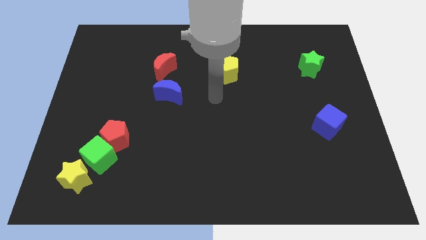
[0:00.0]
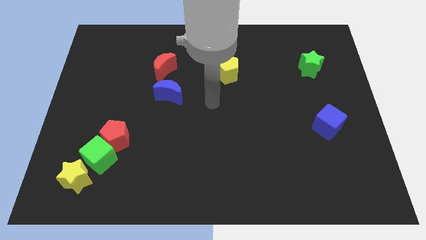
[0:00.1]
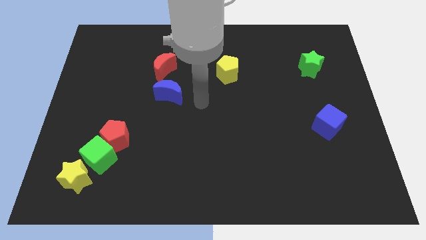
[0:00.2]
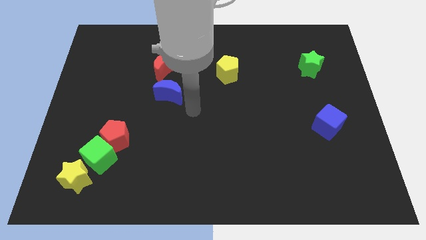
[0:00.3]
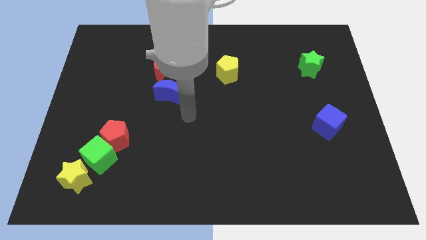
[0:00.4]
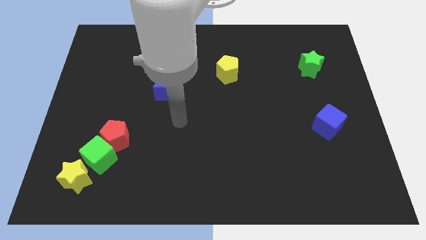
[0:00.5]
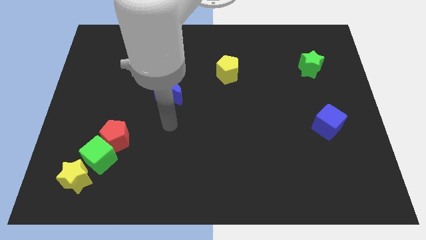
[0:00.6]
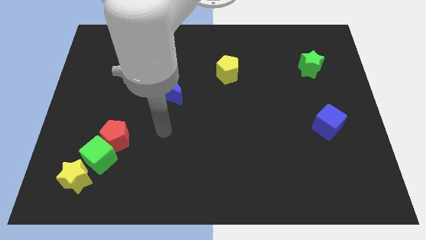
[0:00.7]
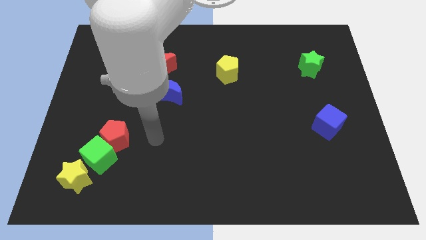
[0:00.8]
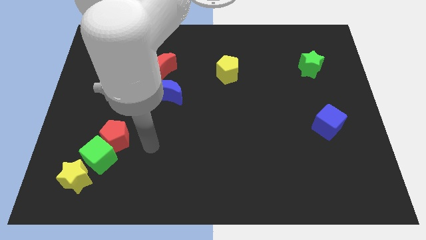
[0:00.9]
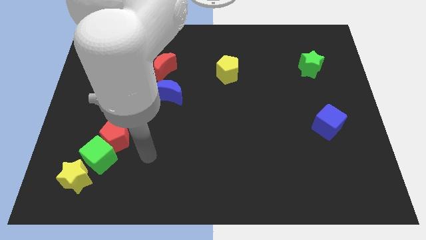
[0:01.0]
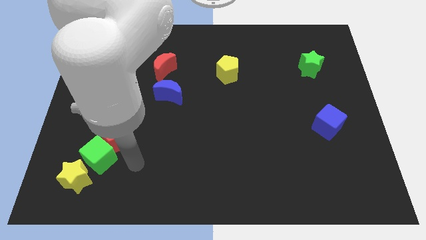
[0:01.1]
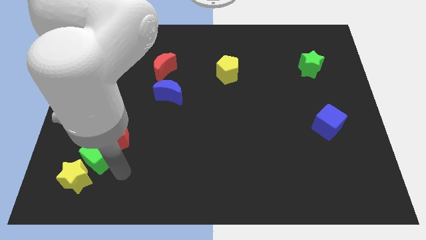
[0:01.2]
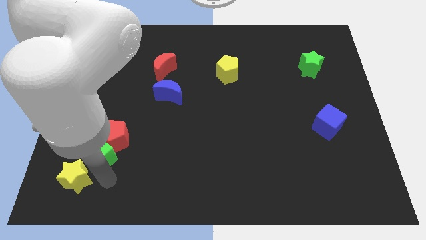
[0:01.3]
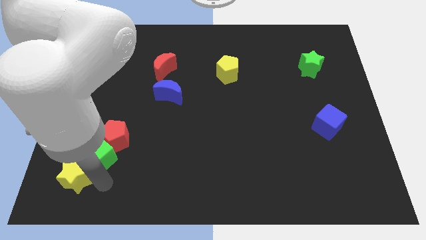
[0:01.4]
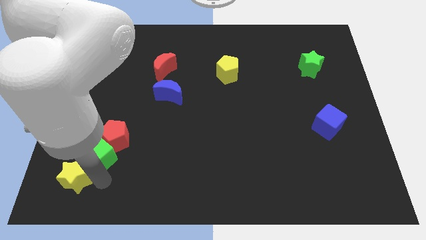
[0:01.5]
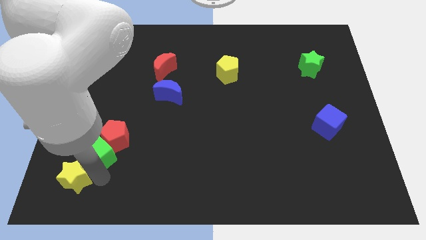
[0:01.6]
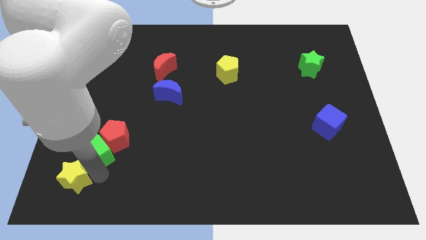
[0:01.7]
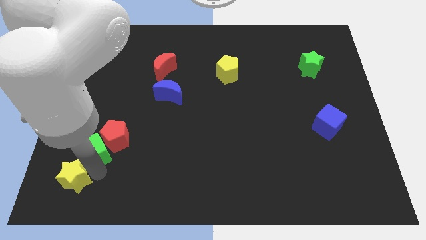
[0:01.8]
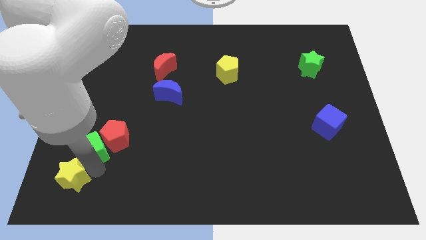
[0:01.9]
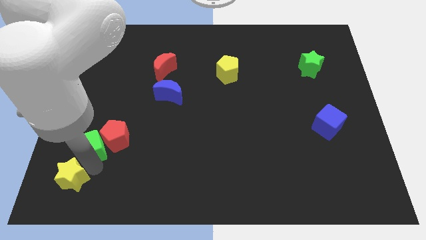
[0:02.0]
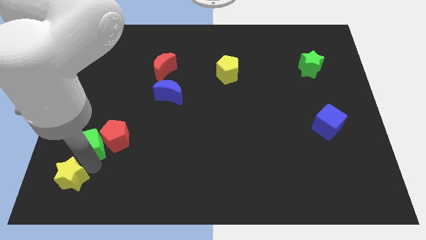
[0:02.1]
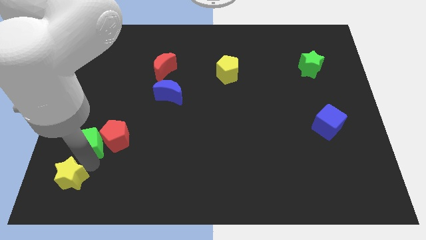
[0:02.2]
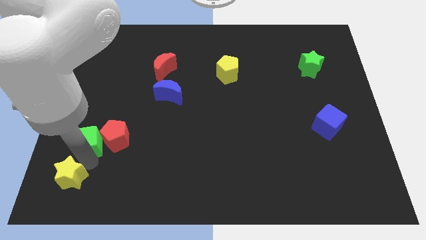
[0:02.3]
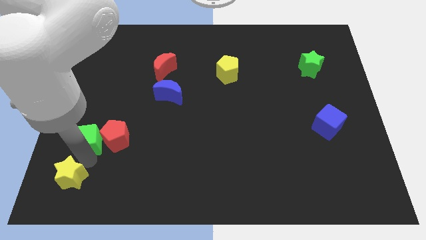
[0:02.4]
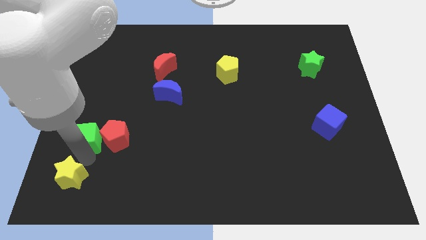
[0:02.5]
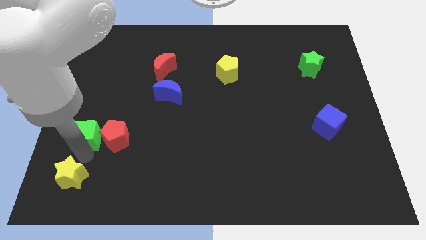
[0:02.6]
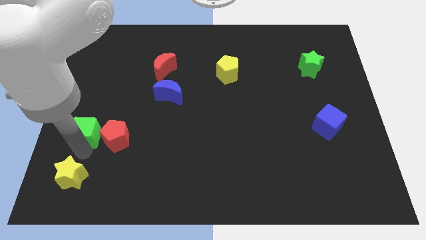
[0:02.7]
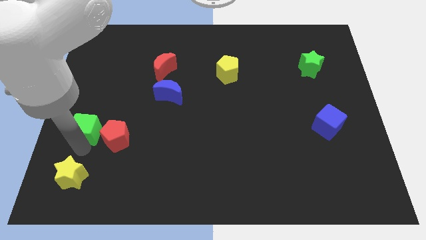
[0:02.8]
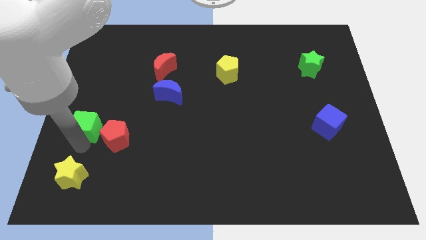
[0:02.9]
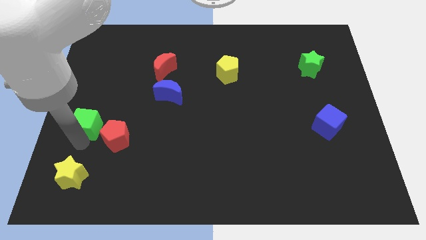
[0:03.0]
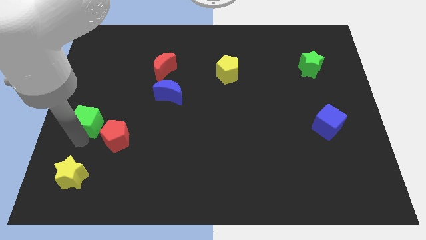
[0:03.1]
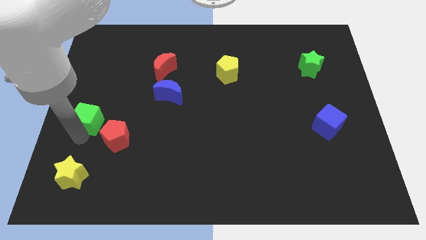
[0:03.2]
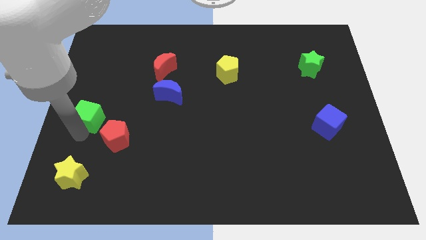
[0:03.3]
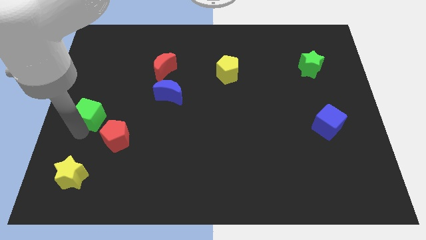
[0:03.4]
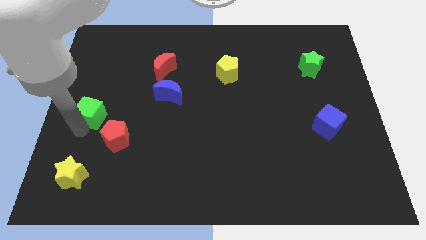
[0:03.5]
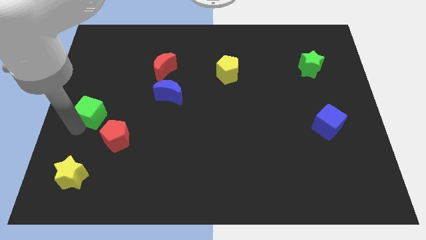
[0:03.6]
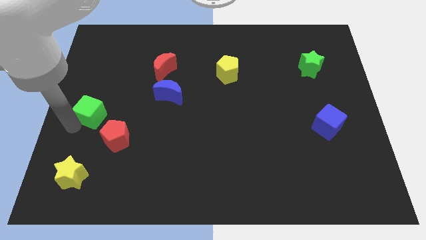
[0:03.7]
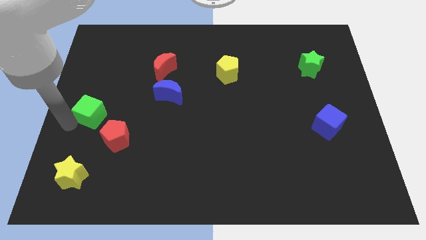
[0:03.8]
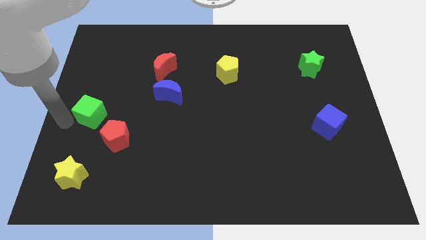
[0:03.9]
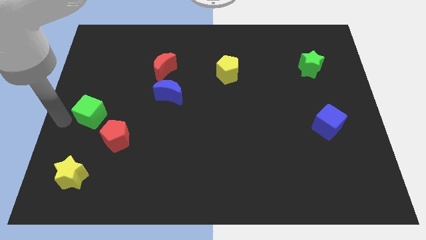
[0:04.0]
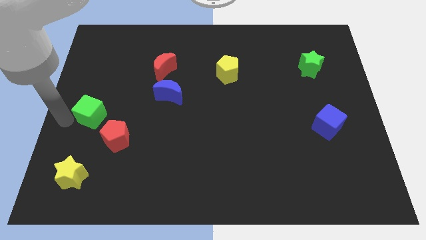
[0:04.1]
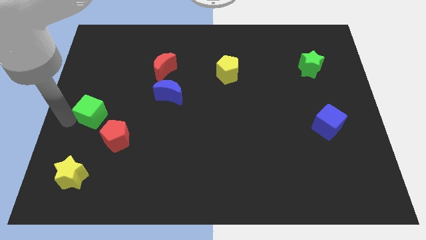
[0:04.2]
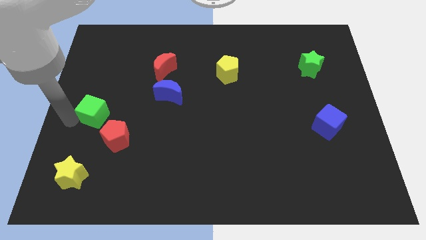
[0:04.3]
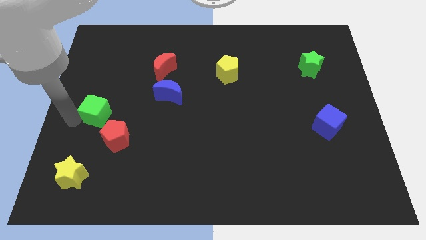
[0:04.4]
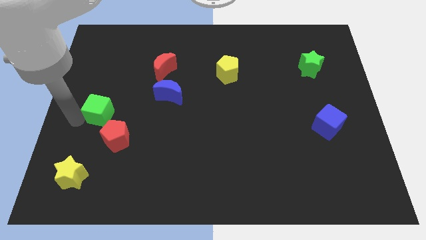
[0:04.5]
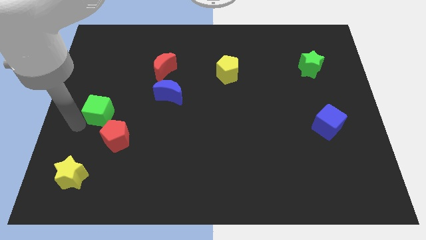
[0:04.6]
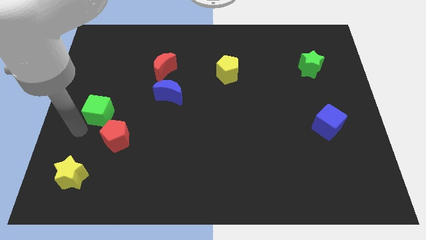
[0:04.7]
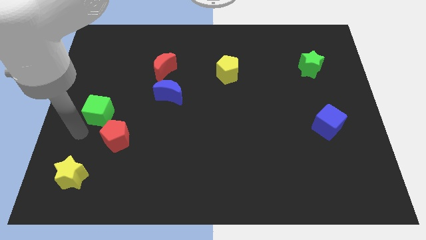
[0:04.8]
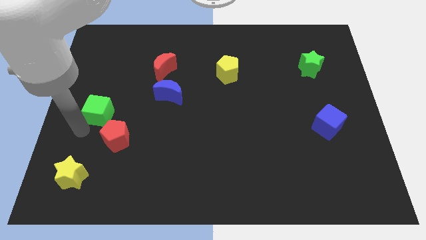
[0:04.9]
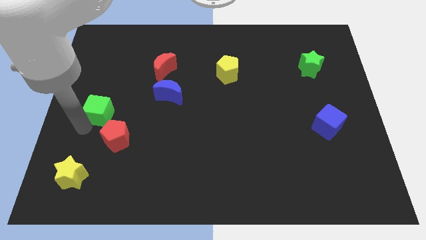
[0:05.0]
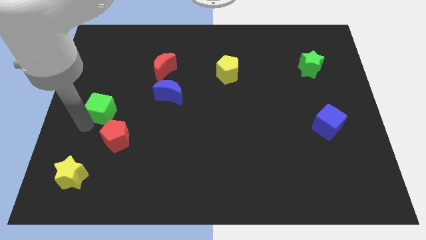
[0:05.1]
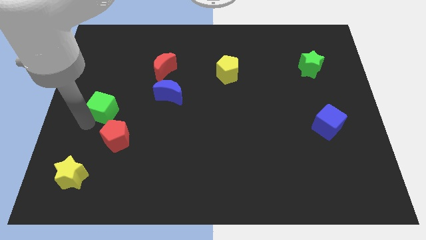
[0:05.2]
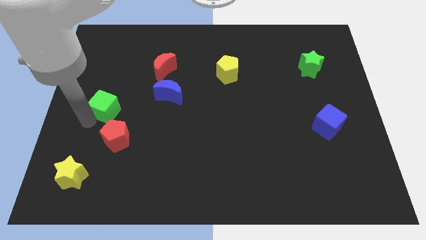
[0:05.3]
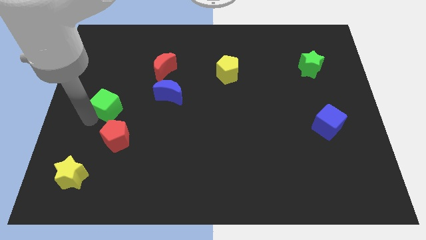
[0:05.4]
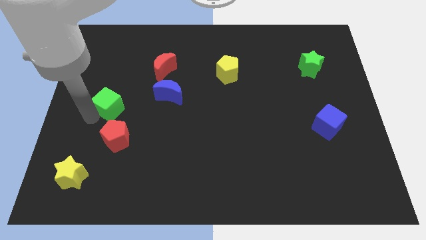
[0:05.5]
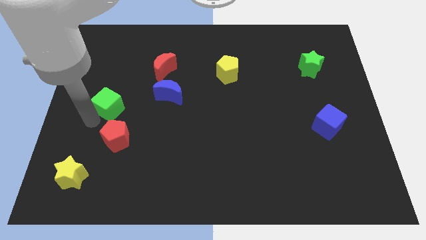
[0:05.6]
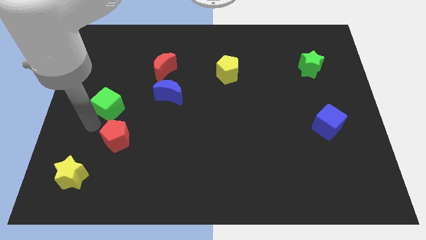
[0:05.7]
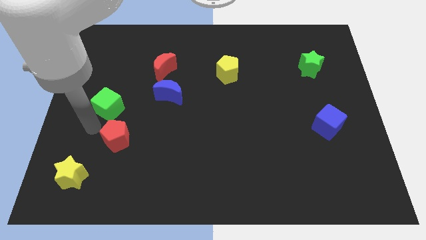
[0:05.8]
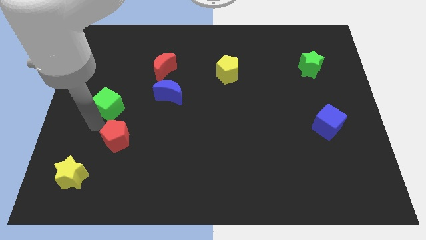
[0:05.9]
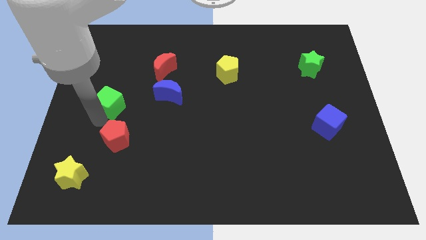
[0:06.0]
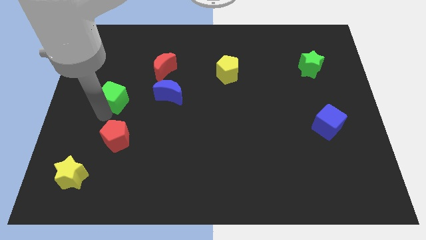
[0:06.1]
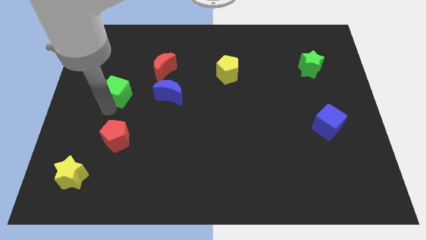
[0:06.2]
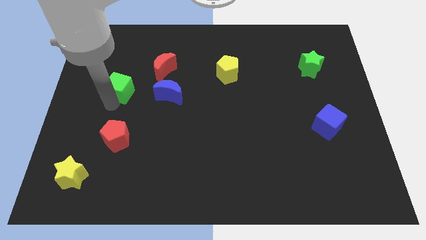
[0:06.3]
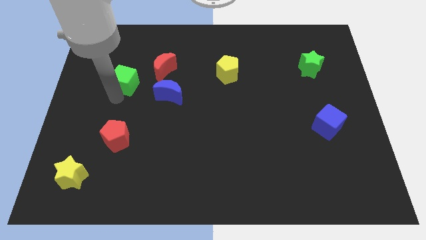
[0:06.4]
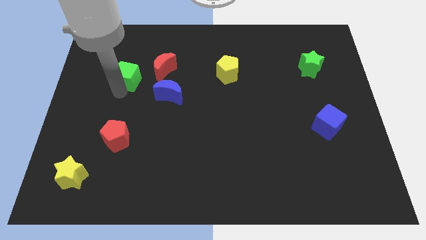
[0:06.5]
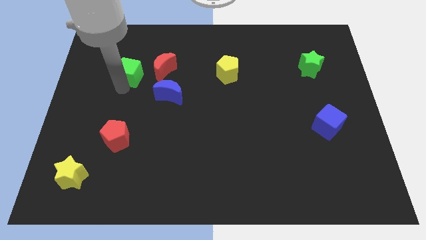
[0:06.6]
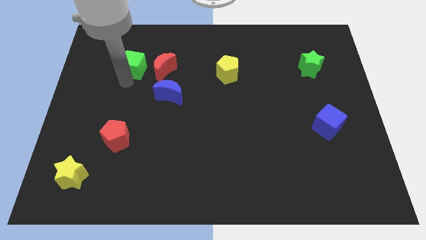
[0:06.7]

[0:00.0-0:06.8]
slide the green cube to the top left side of the red moon

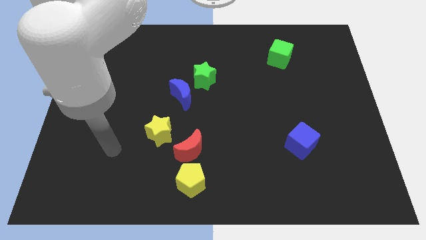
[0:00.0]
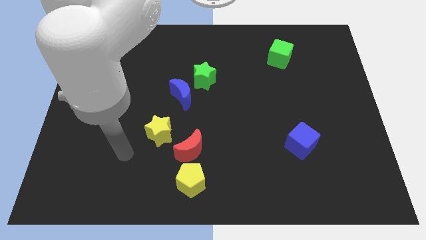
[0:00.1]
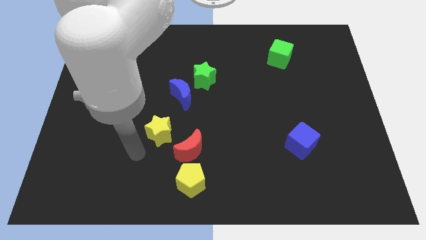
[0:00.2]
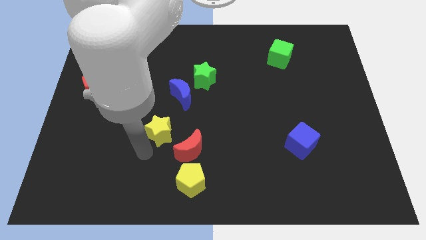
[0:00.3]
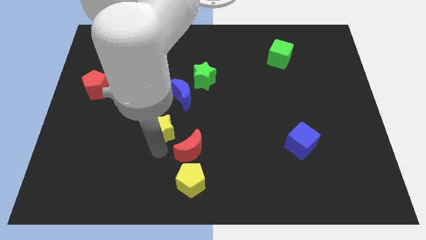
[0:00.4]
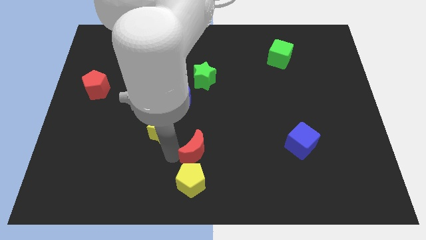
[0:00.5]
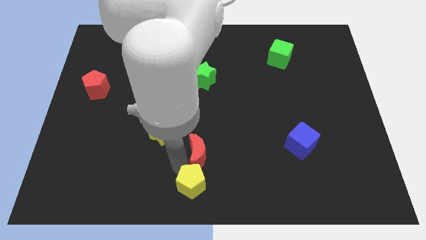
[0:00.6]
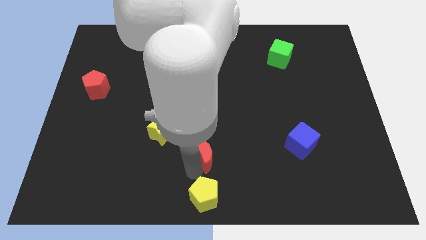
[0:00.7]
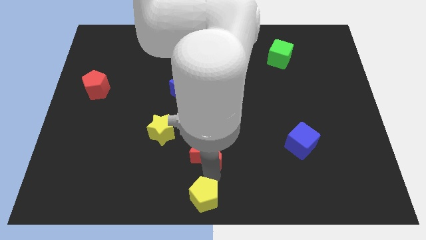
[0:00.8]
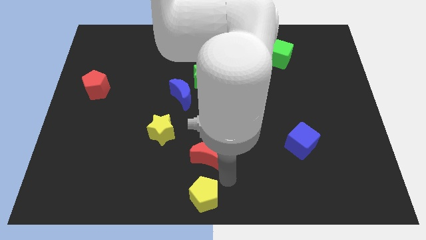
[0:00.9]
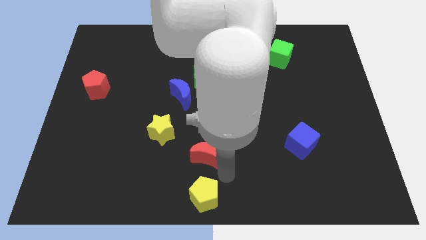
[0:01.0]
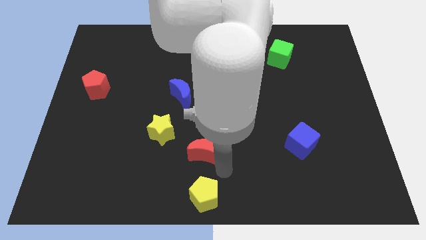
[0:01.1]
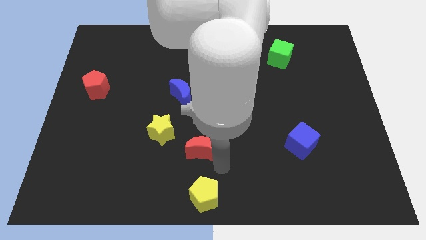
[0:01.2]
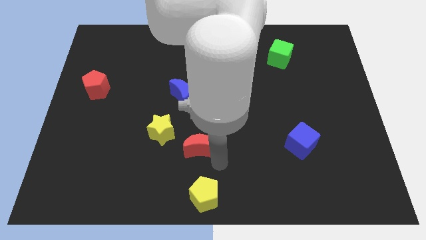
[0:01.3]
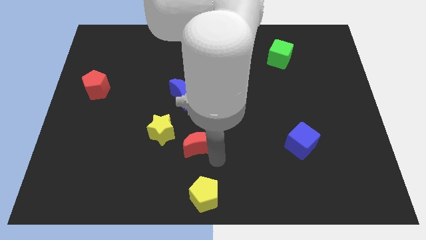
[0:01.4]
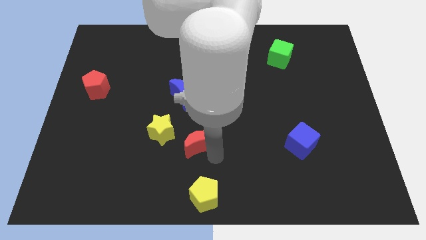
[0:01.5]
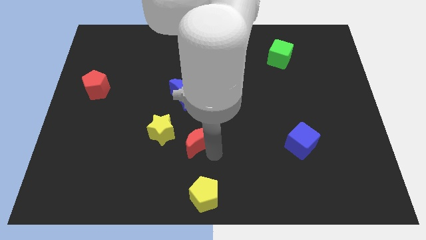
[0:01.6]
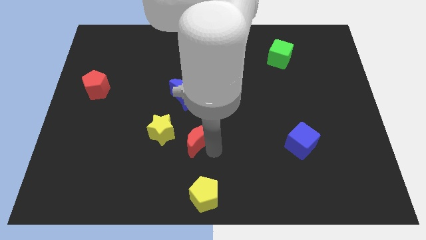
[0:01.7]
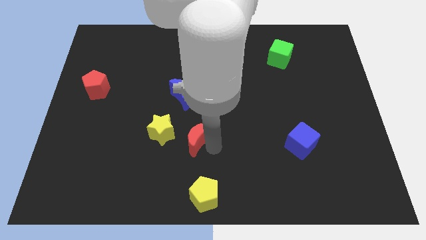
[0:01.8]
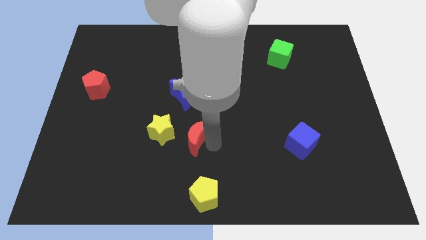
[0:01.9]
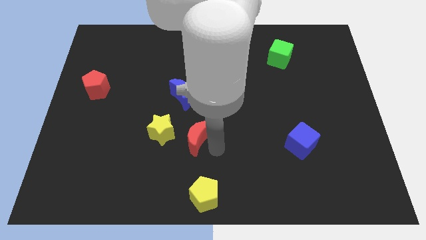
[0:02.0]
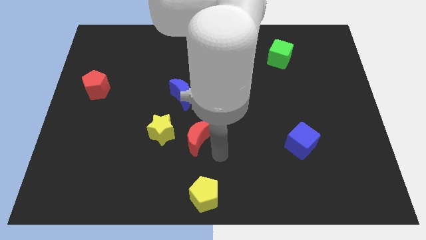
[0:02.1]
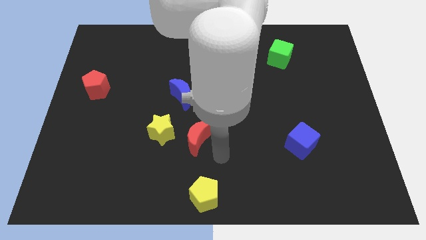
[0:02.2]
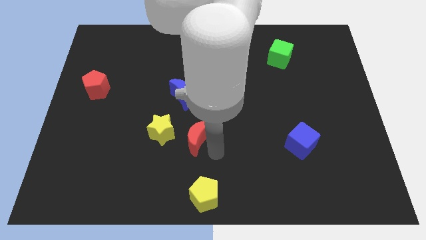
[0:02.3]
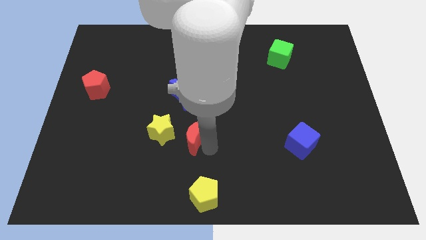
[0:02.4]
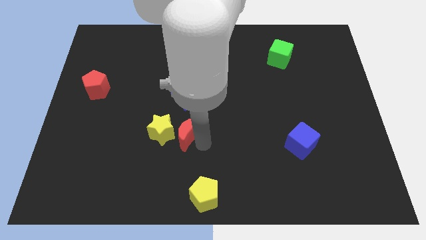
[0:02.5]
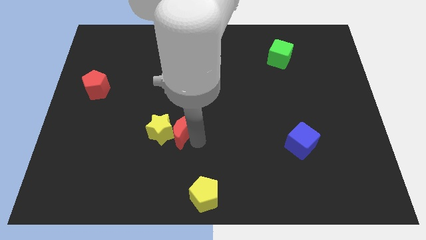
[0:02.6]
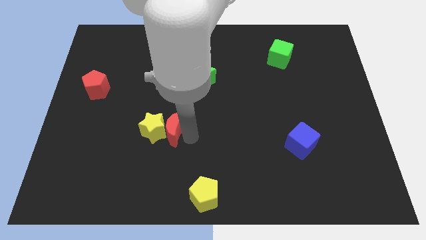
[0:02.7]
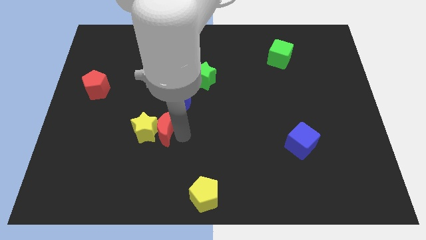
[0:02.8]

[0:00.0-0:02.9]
push the red moon diagonally down and to the left of the blue moon
